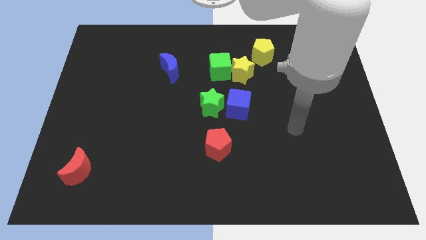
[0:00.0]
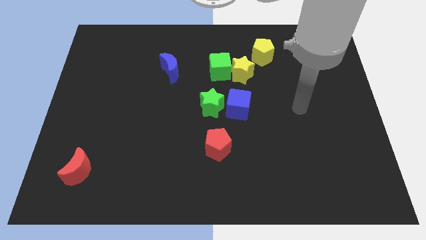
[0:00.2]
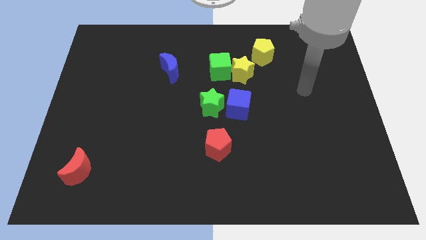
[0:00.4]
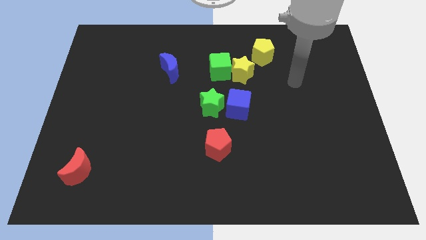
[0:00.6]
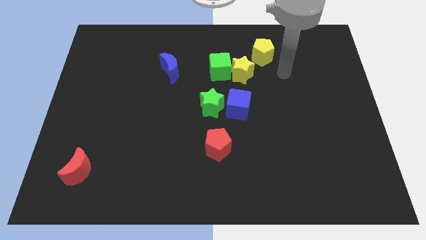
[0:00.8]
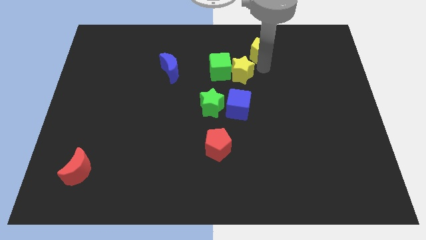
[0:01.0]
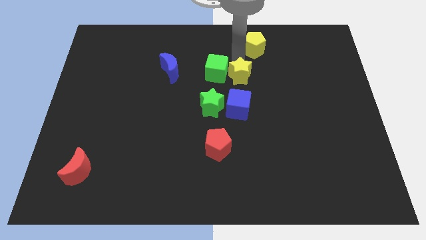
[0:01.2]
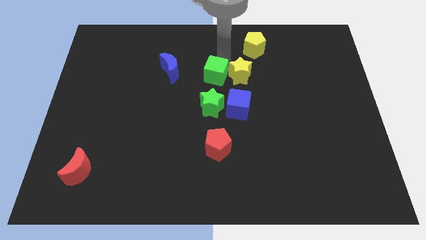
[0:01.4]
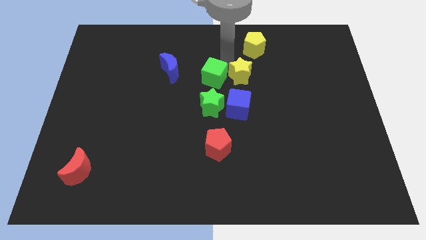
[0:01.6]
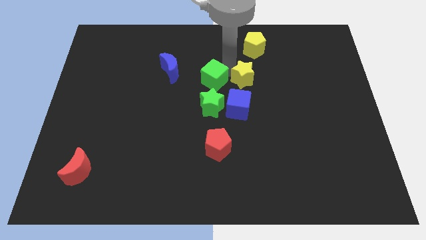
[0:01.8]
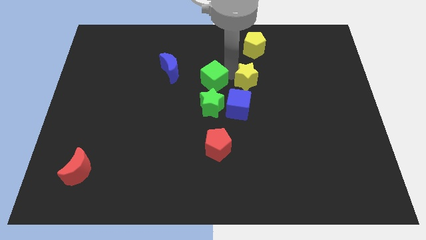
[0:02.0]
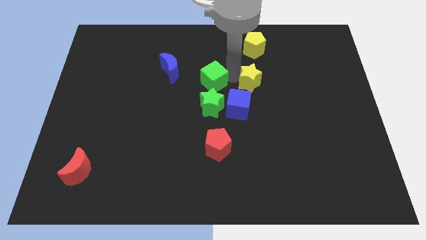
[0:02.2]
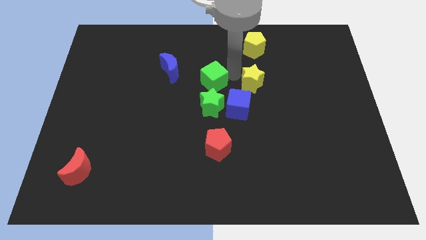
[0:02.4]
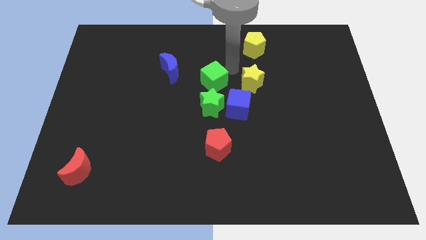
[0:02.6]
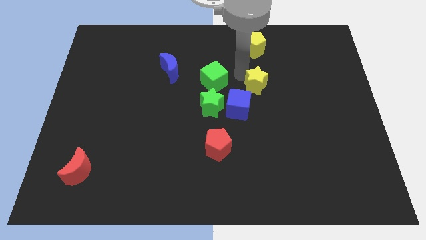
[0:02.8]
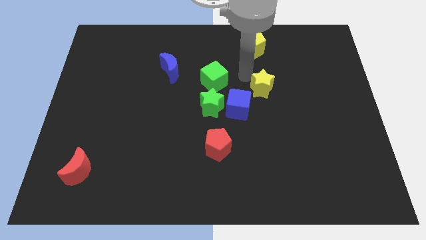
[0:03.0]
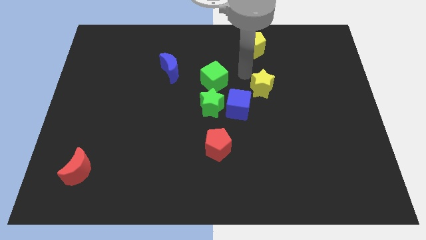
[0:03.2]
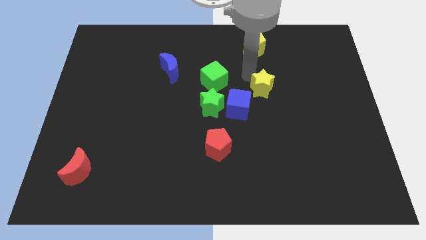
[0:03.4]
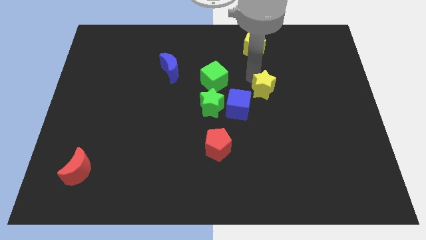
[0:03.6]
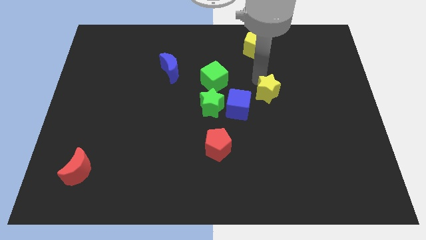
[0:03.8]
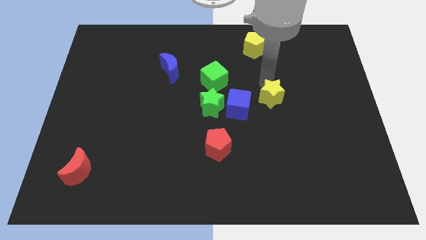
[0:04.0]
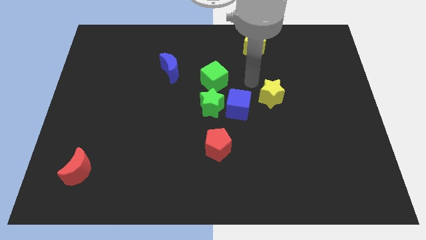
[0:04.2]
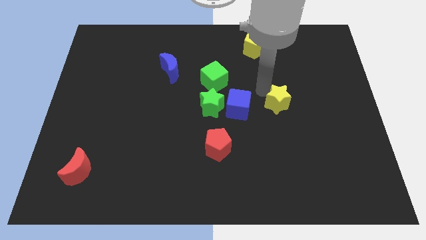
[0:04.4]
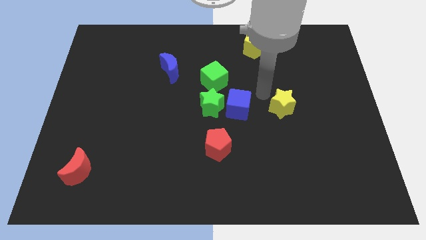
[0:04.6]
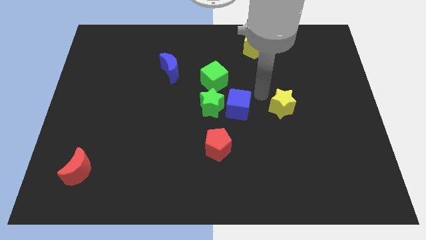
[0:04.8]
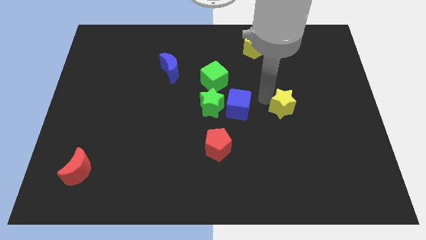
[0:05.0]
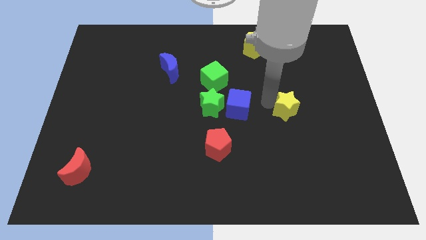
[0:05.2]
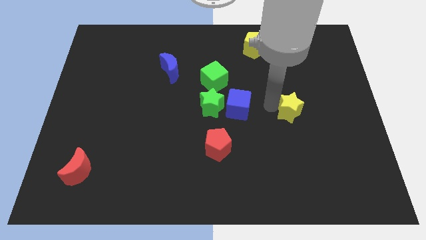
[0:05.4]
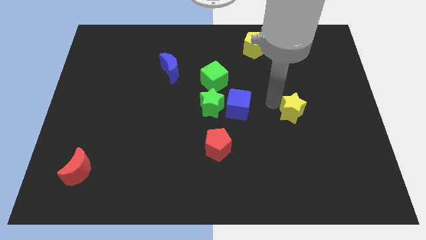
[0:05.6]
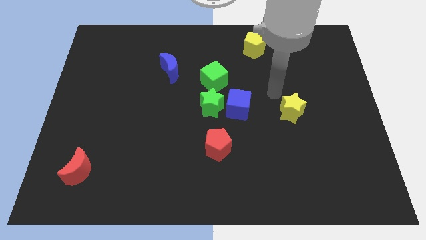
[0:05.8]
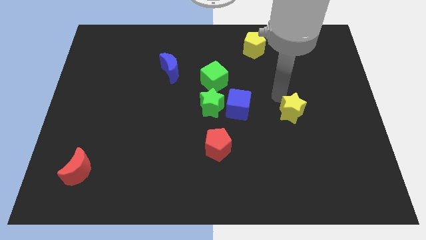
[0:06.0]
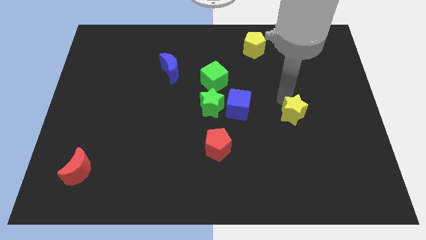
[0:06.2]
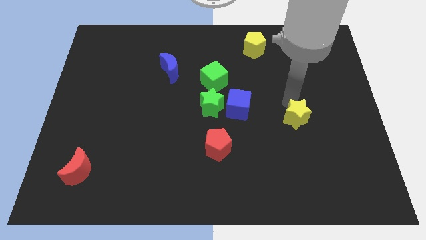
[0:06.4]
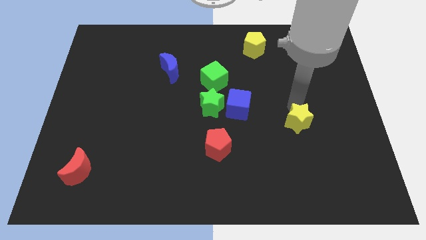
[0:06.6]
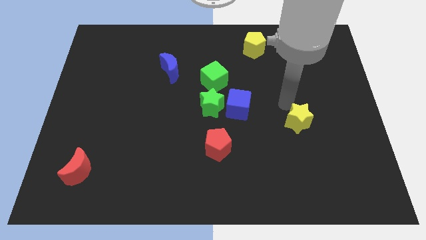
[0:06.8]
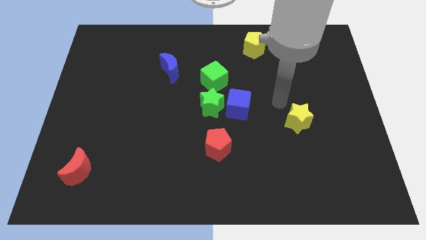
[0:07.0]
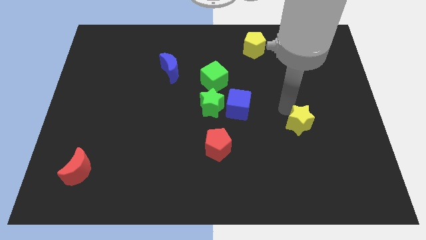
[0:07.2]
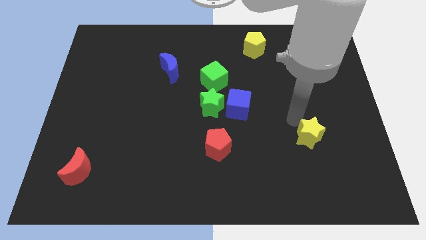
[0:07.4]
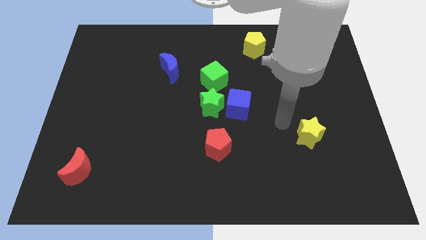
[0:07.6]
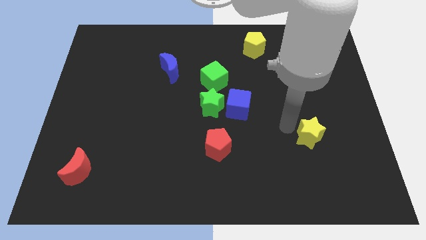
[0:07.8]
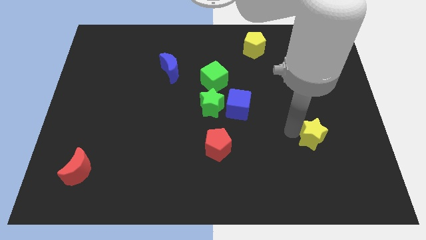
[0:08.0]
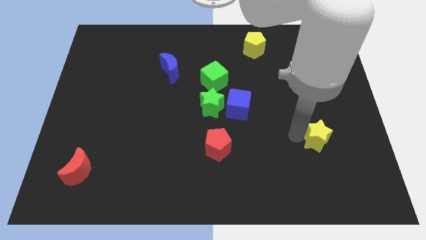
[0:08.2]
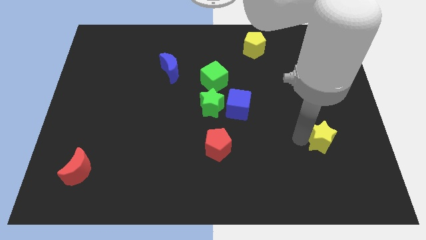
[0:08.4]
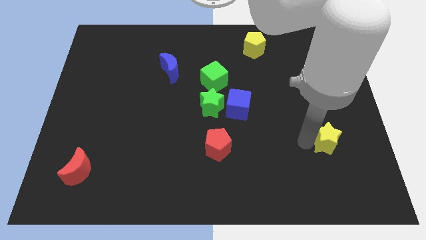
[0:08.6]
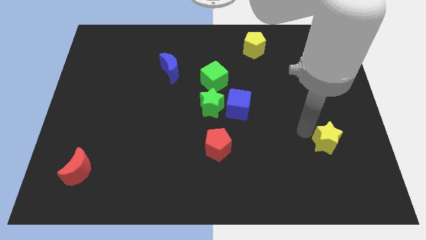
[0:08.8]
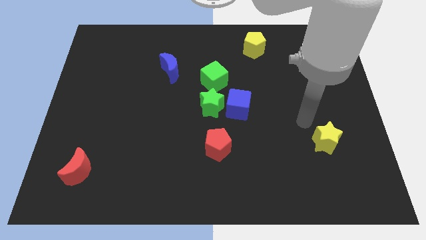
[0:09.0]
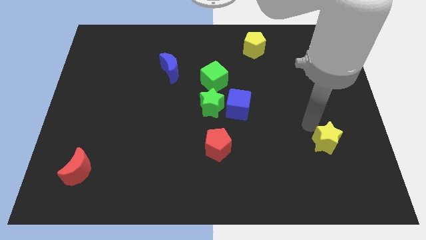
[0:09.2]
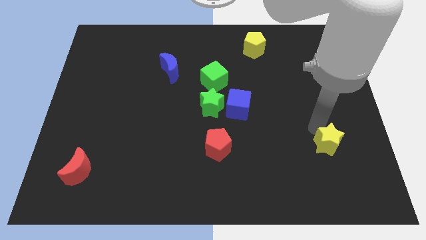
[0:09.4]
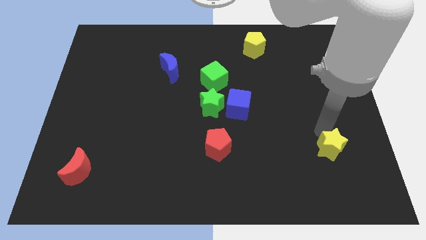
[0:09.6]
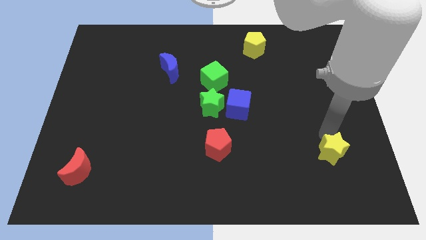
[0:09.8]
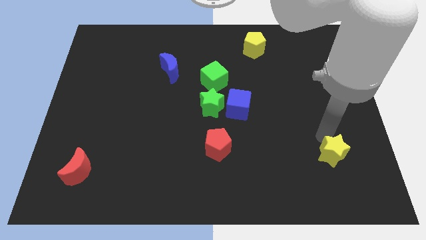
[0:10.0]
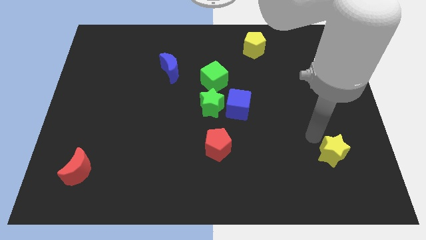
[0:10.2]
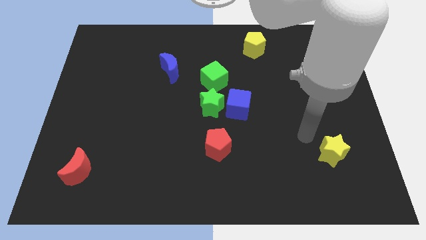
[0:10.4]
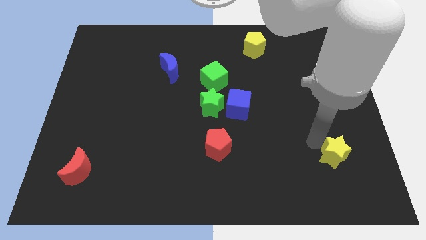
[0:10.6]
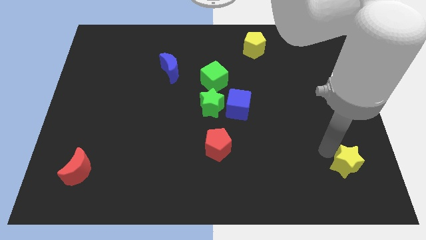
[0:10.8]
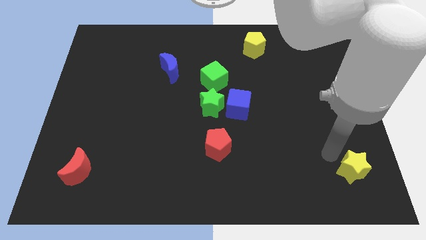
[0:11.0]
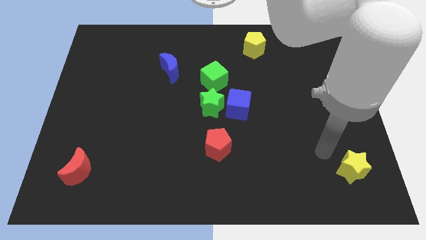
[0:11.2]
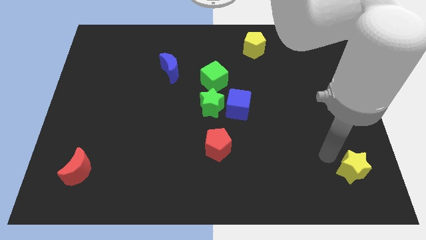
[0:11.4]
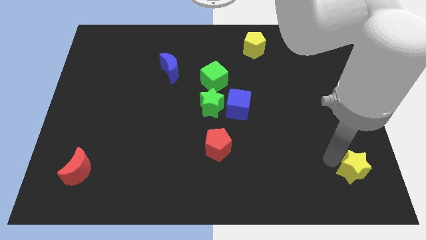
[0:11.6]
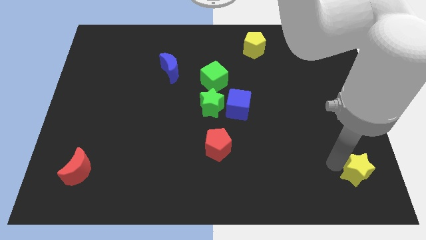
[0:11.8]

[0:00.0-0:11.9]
move the yellow star to the bottom right corner

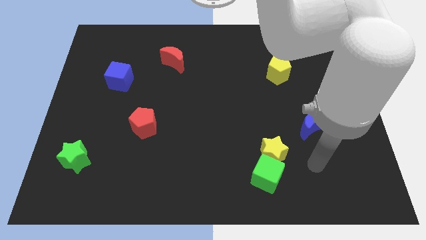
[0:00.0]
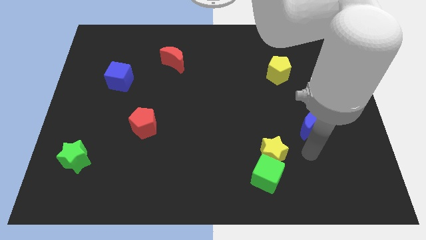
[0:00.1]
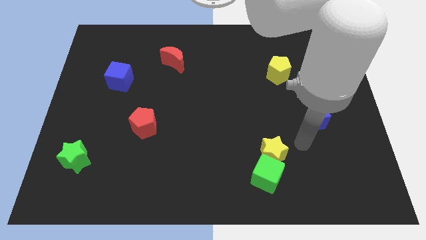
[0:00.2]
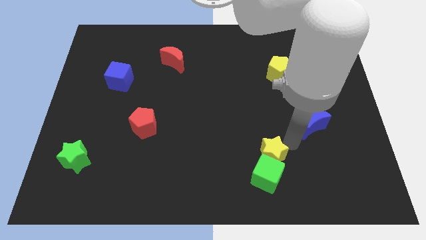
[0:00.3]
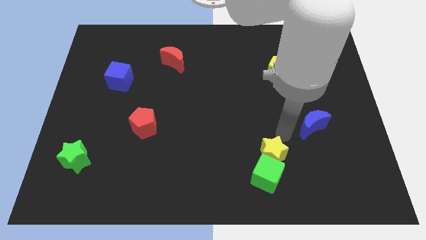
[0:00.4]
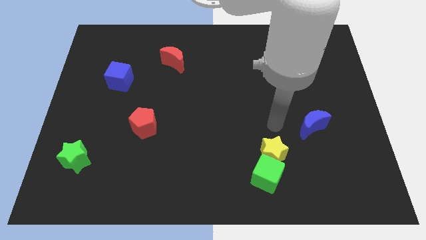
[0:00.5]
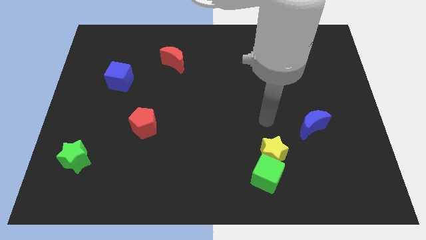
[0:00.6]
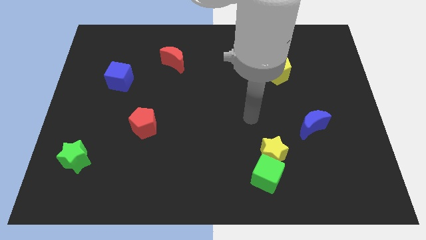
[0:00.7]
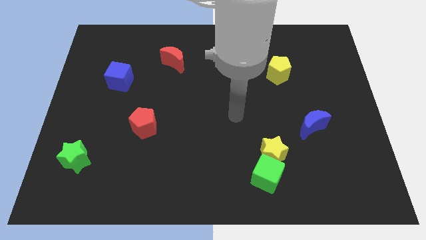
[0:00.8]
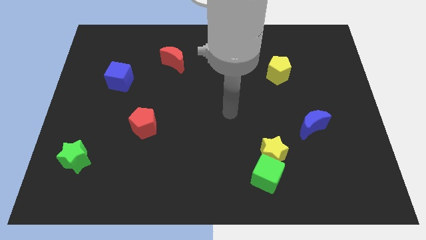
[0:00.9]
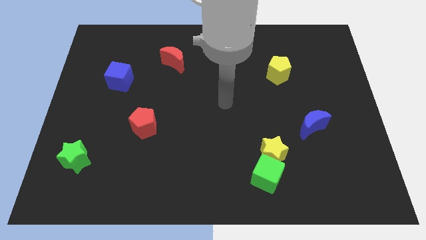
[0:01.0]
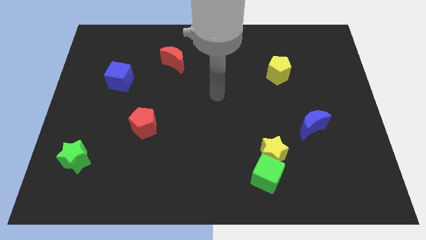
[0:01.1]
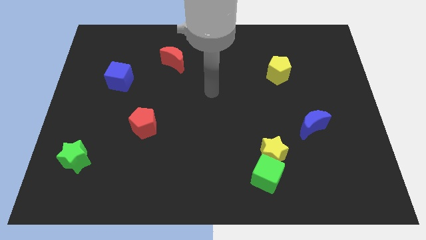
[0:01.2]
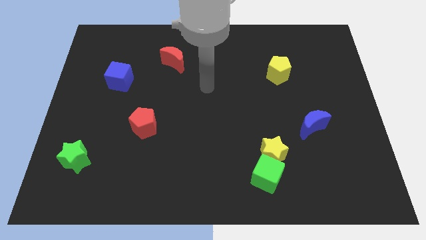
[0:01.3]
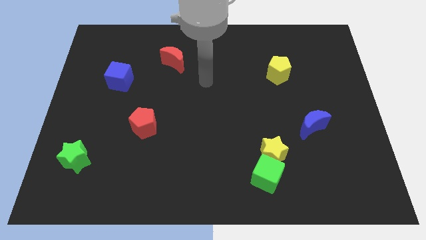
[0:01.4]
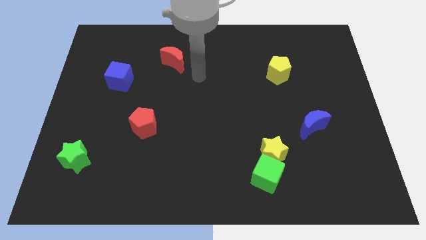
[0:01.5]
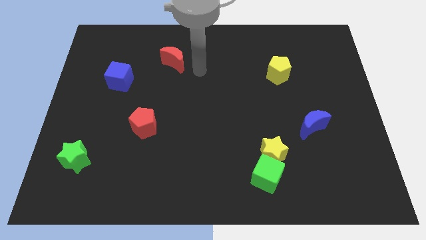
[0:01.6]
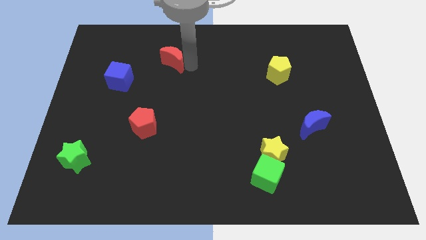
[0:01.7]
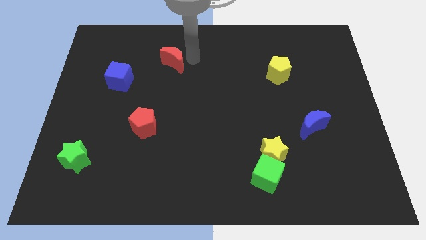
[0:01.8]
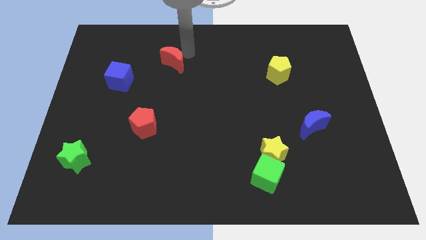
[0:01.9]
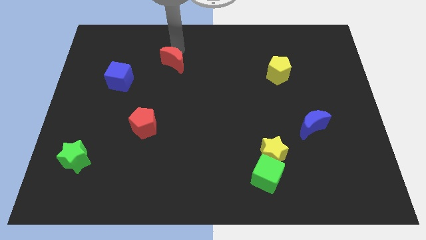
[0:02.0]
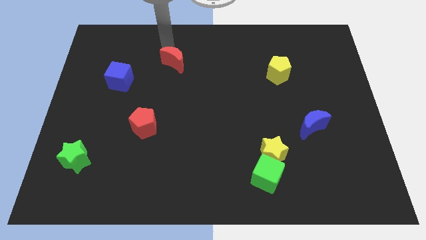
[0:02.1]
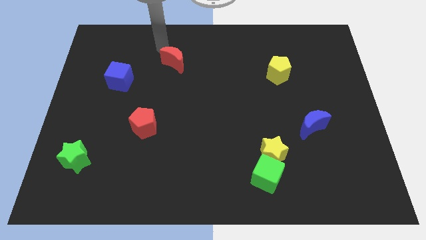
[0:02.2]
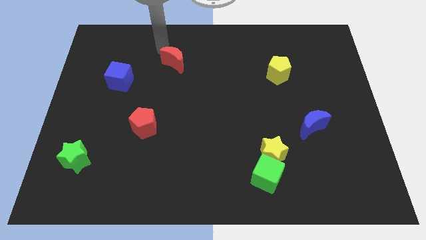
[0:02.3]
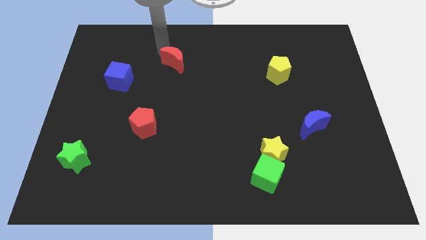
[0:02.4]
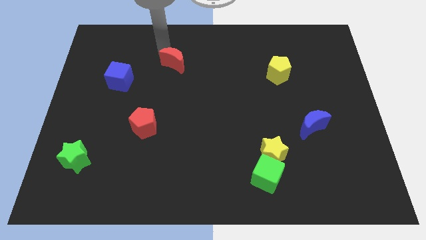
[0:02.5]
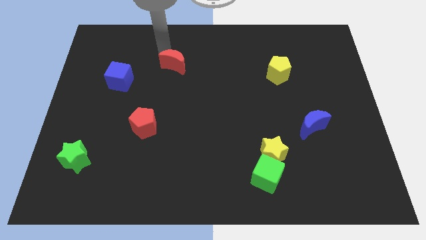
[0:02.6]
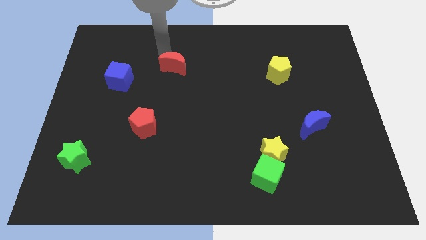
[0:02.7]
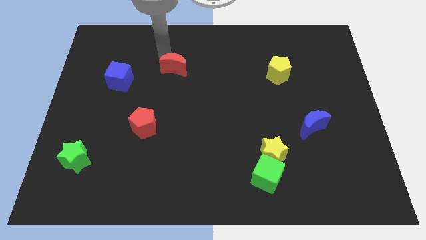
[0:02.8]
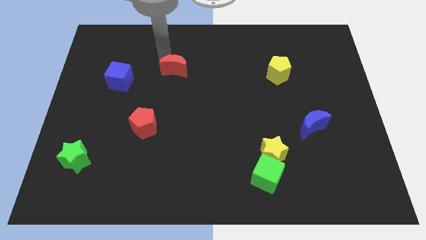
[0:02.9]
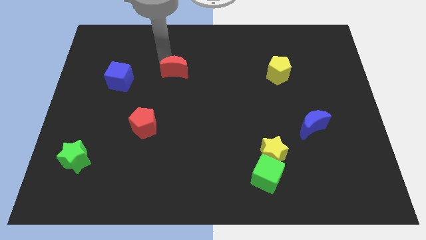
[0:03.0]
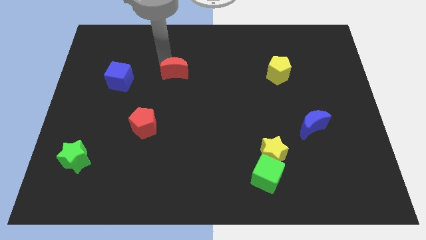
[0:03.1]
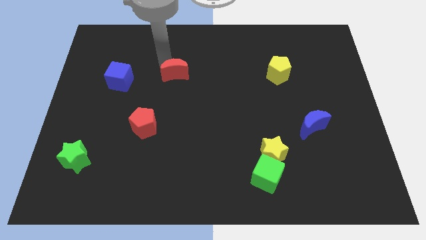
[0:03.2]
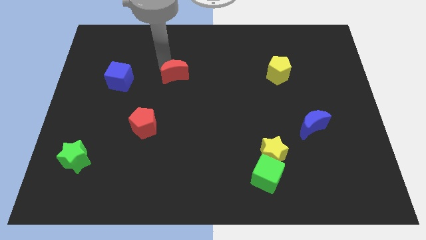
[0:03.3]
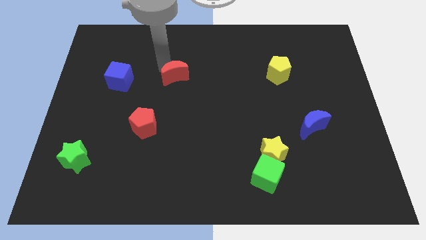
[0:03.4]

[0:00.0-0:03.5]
move the red moon to the middle of the board
